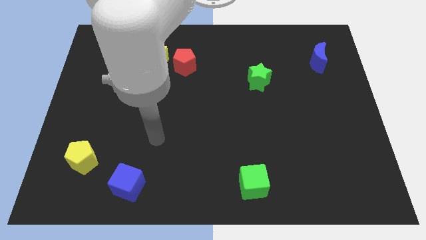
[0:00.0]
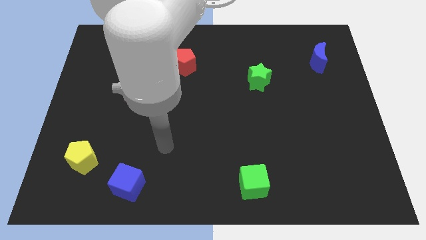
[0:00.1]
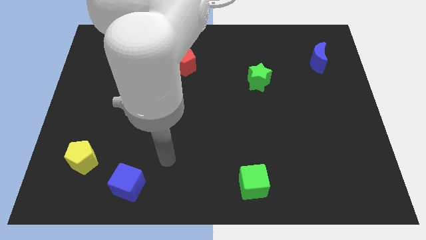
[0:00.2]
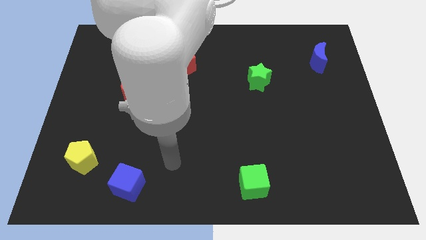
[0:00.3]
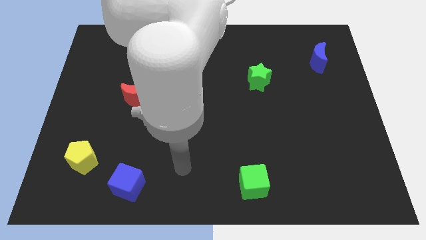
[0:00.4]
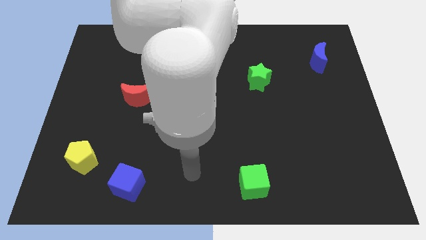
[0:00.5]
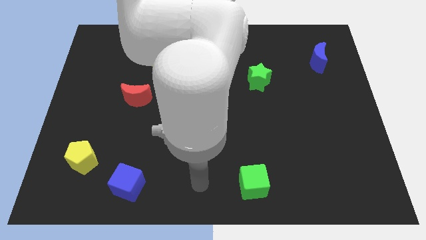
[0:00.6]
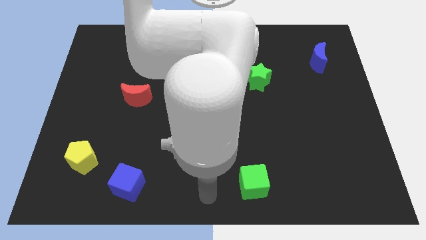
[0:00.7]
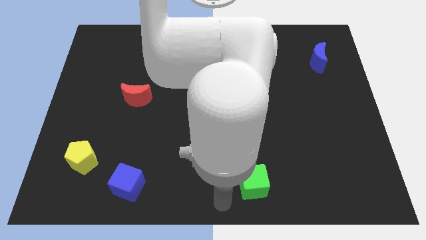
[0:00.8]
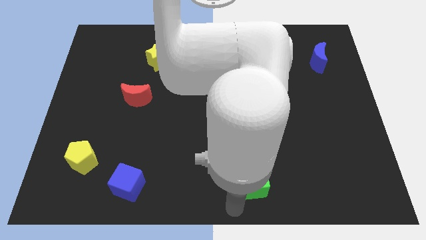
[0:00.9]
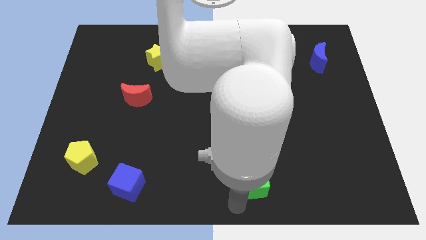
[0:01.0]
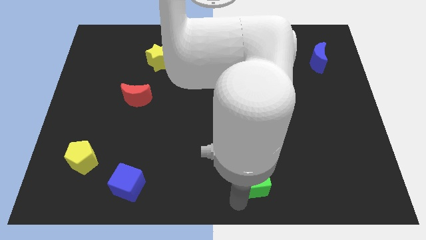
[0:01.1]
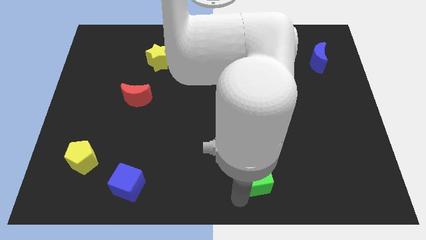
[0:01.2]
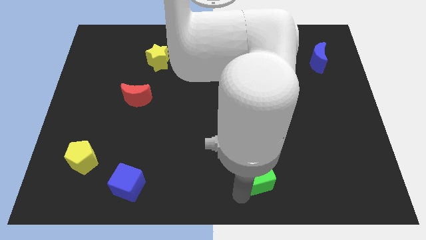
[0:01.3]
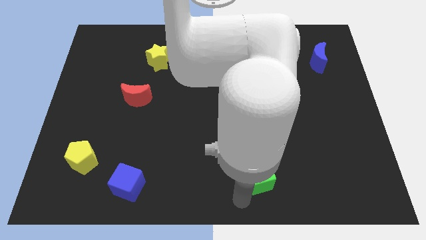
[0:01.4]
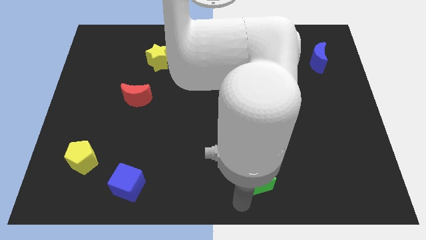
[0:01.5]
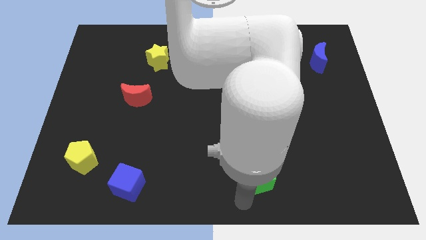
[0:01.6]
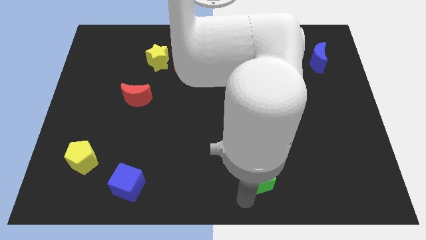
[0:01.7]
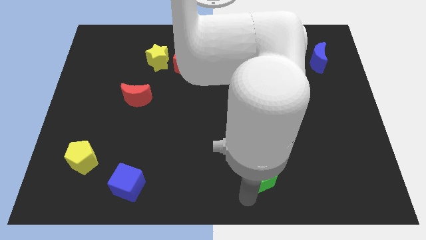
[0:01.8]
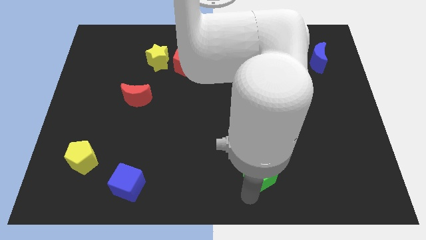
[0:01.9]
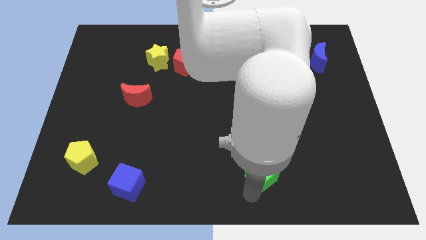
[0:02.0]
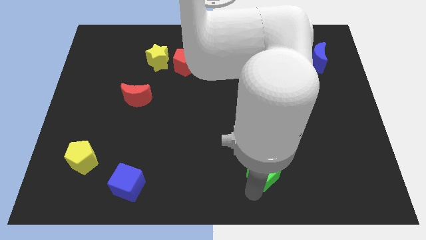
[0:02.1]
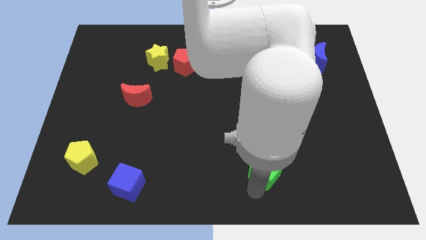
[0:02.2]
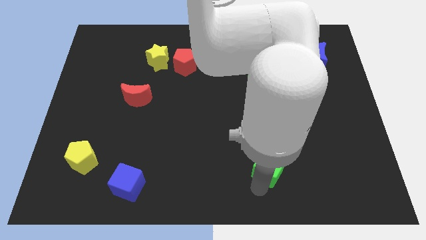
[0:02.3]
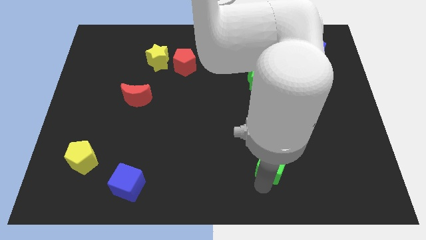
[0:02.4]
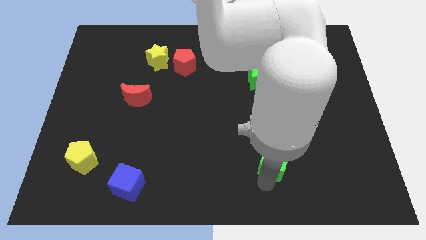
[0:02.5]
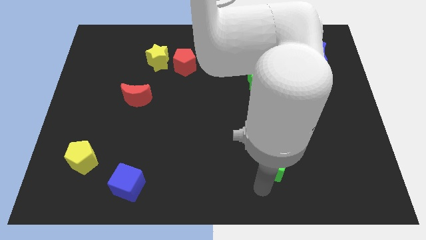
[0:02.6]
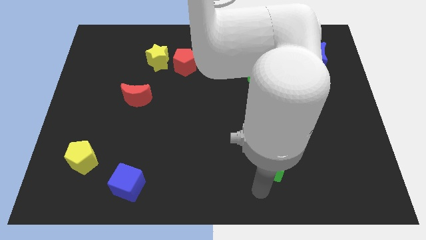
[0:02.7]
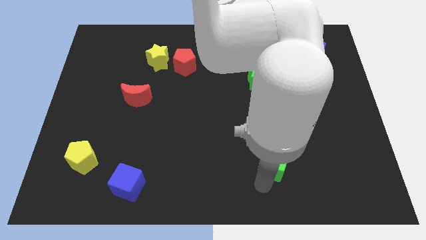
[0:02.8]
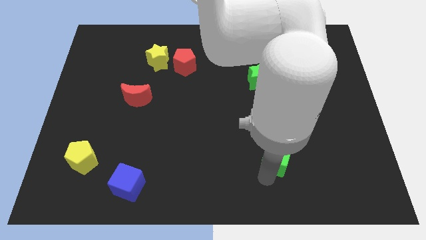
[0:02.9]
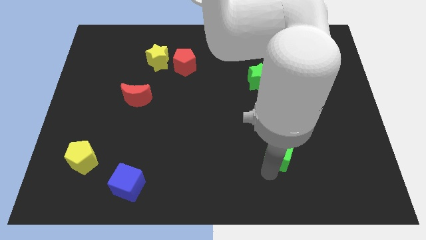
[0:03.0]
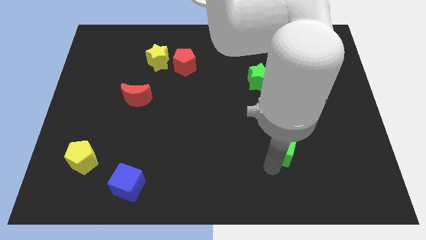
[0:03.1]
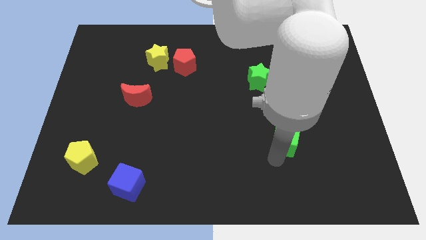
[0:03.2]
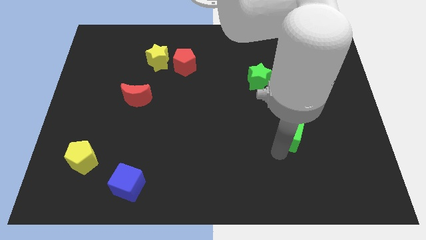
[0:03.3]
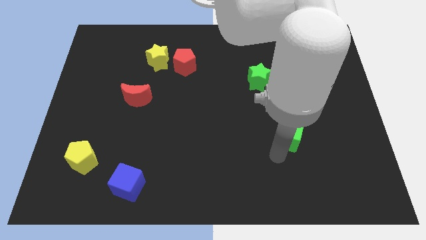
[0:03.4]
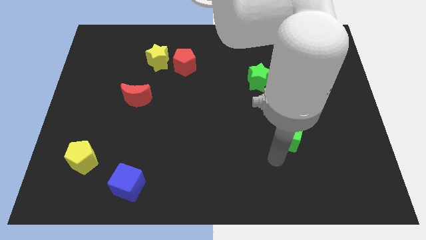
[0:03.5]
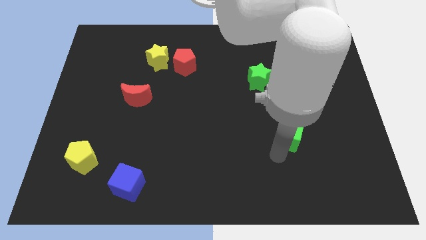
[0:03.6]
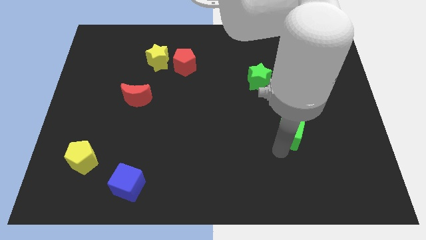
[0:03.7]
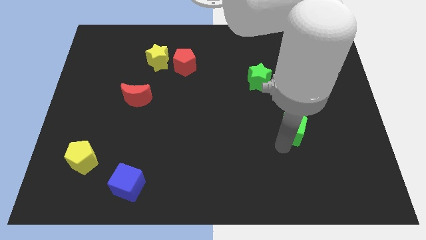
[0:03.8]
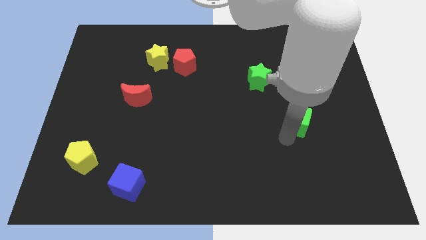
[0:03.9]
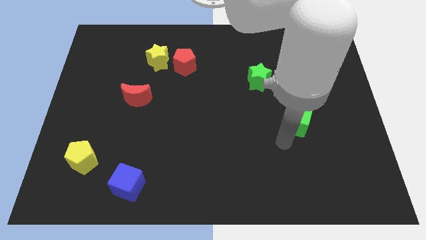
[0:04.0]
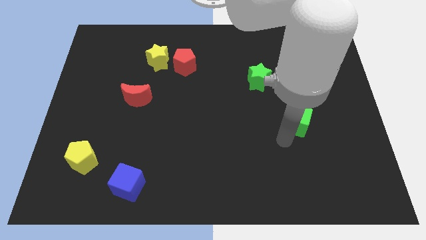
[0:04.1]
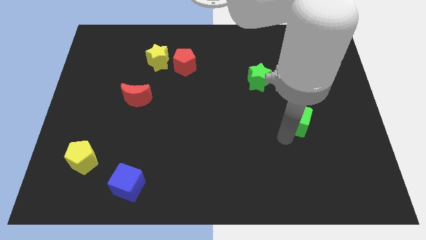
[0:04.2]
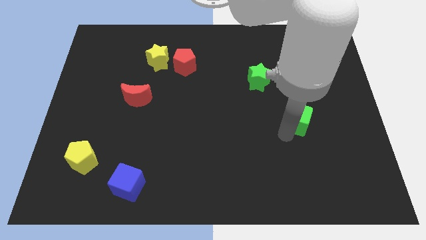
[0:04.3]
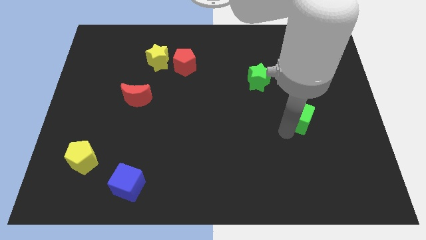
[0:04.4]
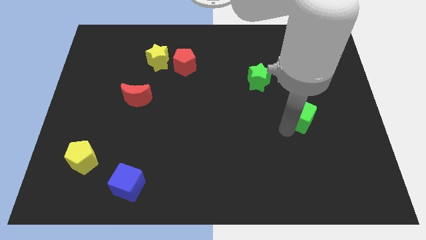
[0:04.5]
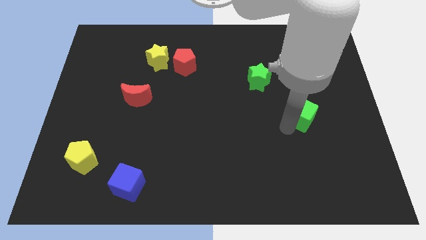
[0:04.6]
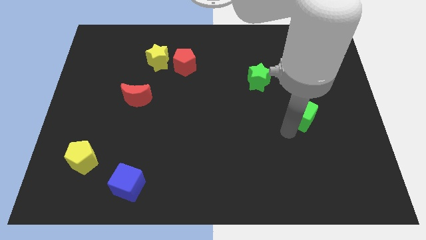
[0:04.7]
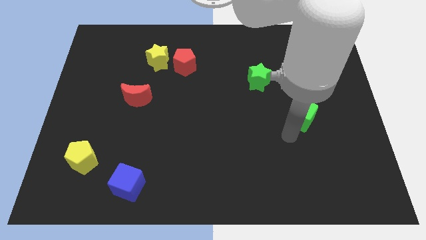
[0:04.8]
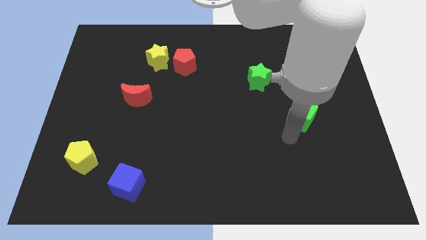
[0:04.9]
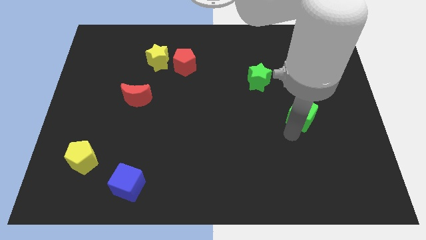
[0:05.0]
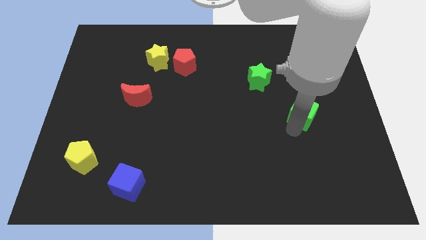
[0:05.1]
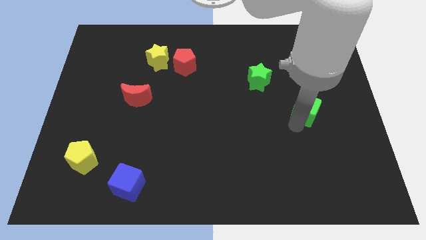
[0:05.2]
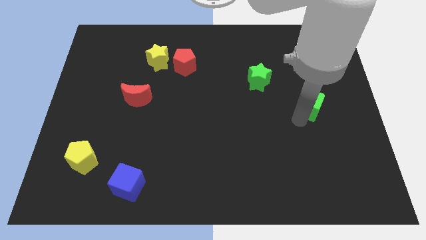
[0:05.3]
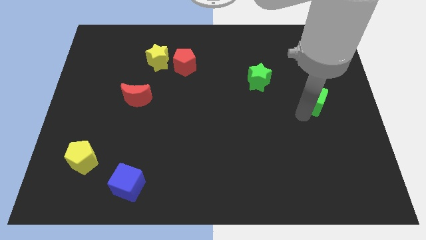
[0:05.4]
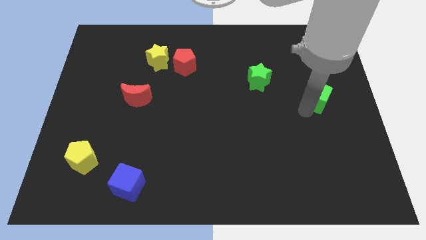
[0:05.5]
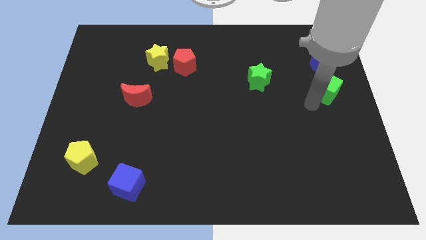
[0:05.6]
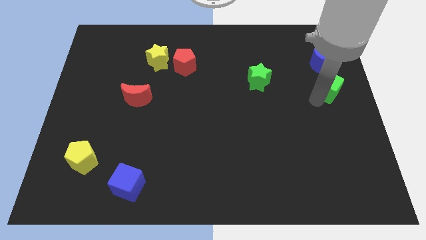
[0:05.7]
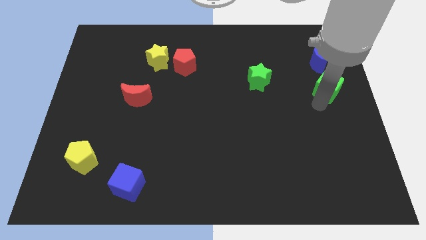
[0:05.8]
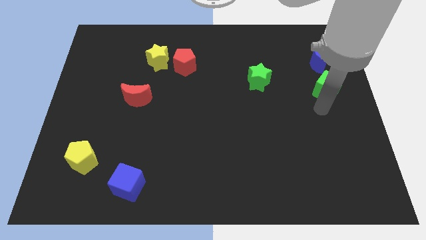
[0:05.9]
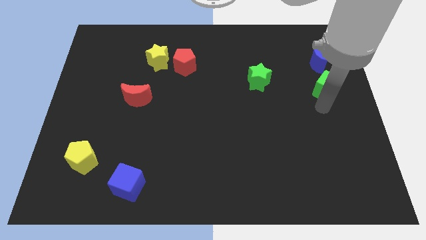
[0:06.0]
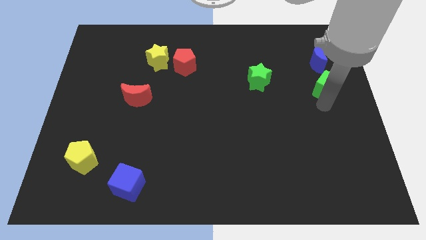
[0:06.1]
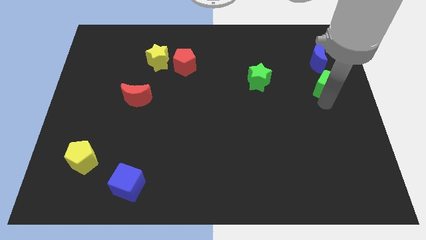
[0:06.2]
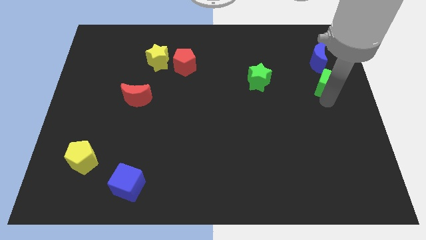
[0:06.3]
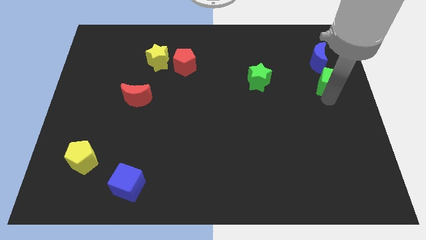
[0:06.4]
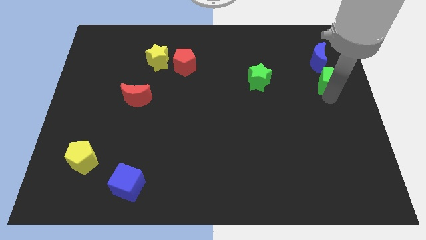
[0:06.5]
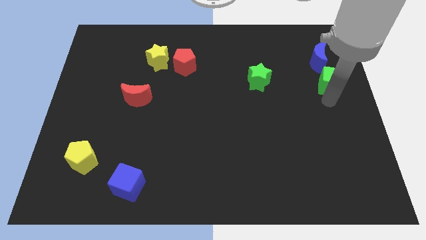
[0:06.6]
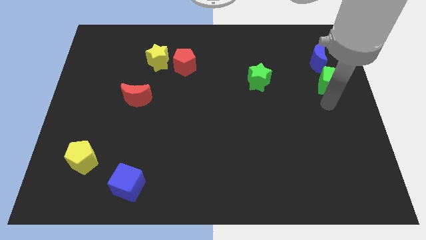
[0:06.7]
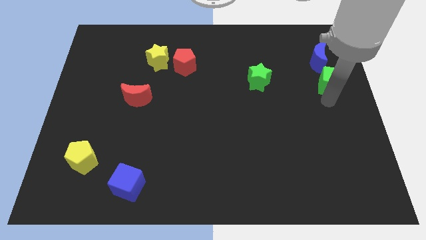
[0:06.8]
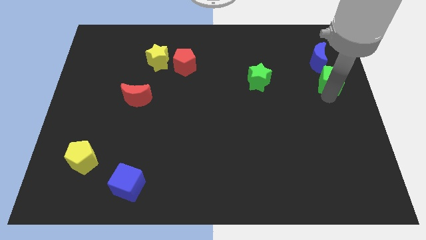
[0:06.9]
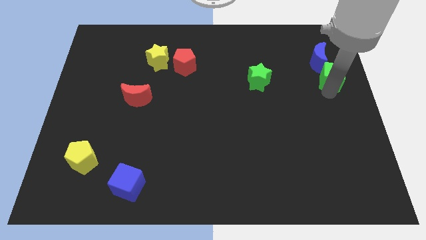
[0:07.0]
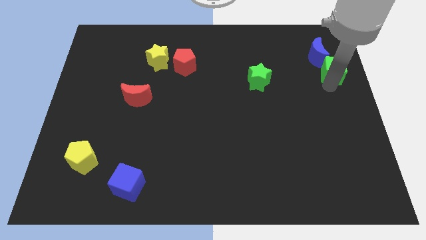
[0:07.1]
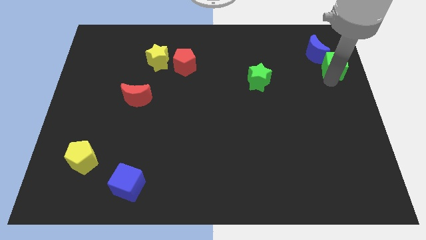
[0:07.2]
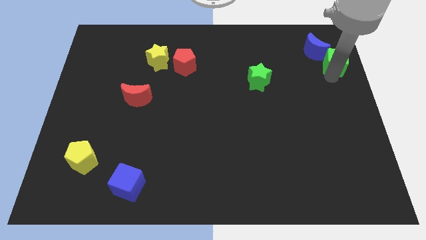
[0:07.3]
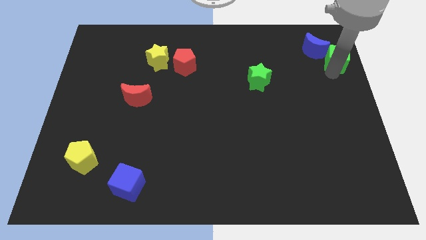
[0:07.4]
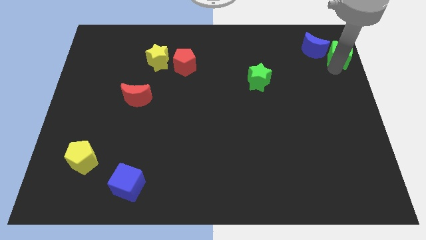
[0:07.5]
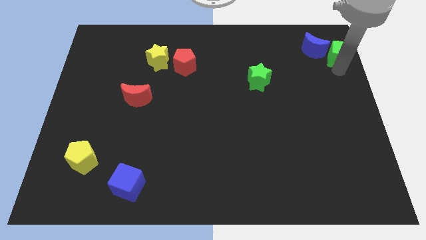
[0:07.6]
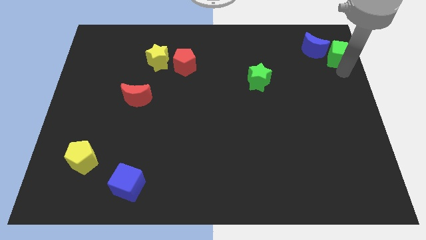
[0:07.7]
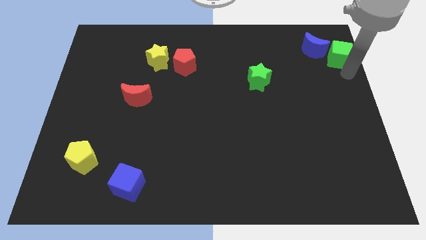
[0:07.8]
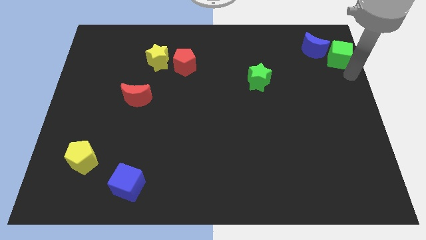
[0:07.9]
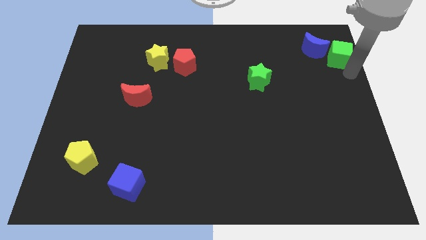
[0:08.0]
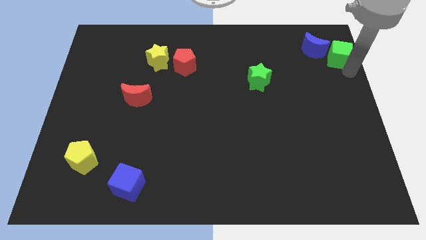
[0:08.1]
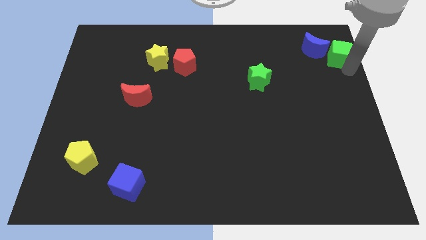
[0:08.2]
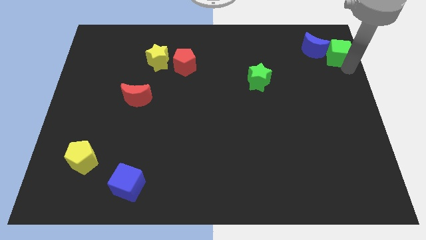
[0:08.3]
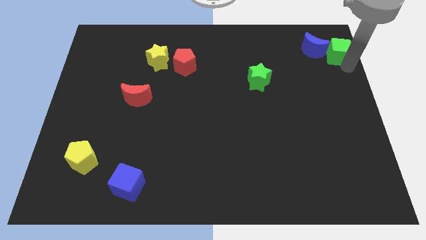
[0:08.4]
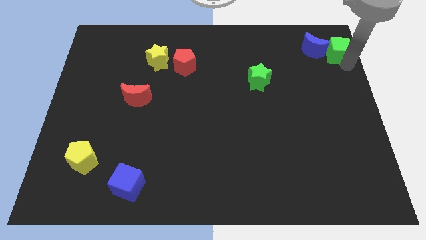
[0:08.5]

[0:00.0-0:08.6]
push the green cube to the top right of the board
